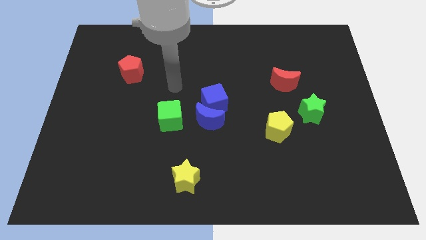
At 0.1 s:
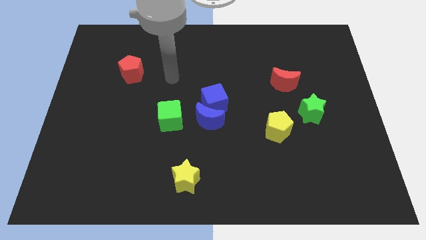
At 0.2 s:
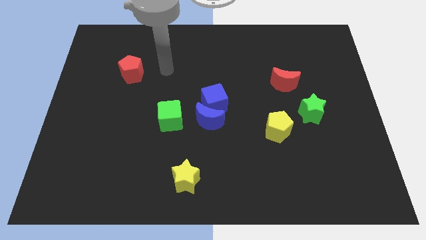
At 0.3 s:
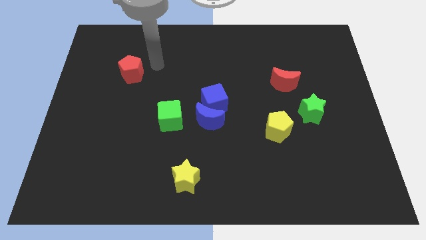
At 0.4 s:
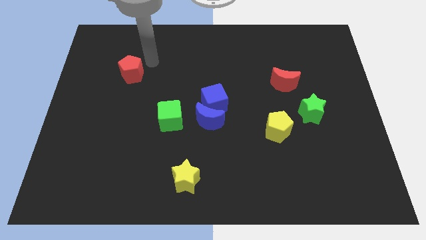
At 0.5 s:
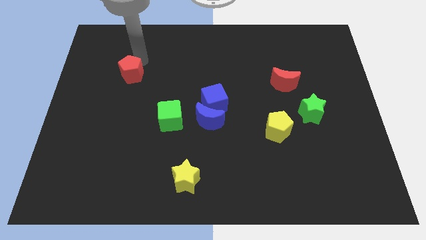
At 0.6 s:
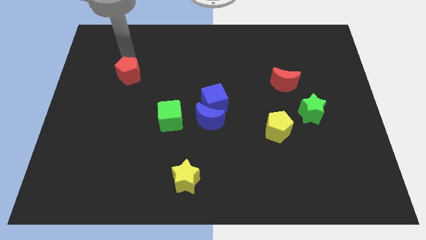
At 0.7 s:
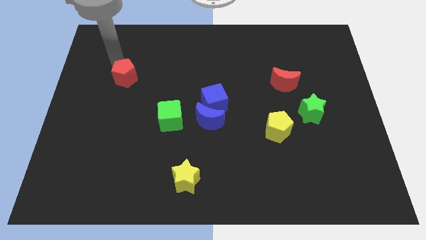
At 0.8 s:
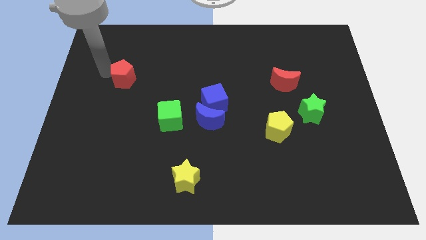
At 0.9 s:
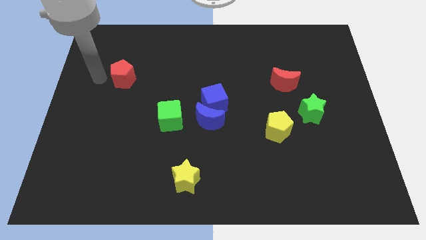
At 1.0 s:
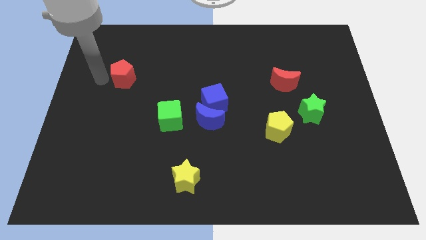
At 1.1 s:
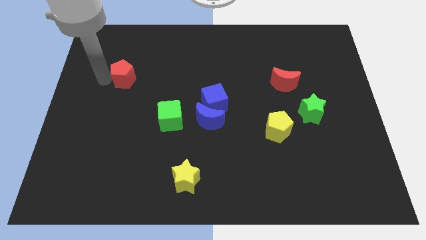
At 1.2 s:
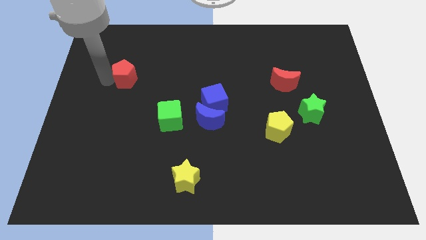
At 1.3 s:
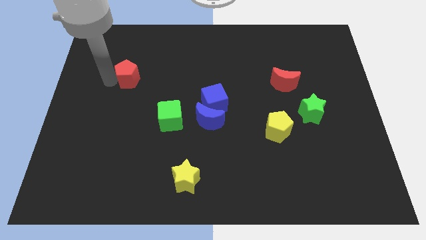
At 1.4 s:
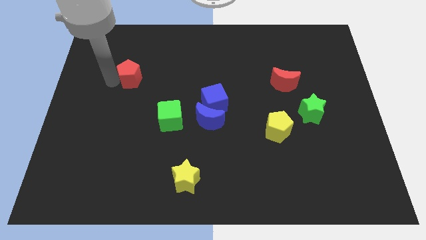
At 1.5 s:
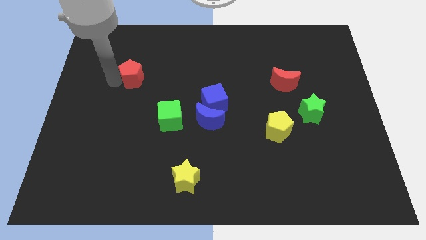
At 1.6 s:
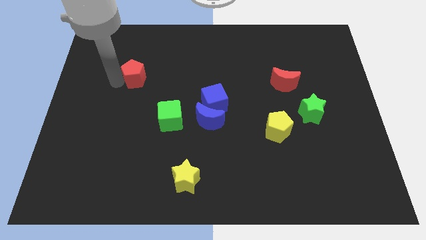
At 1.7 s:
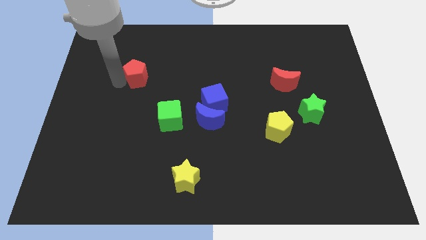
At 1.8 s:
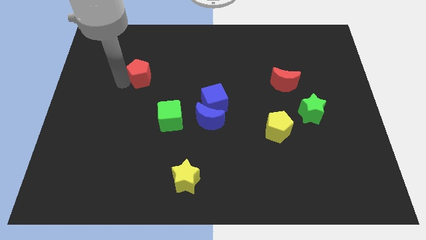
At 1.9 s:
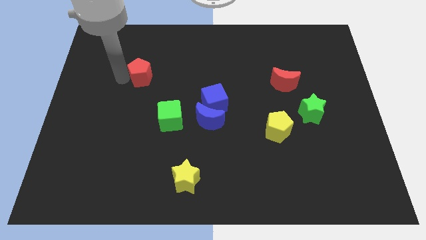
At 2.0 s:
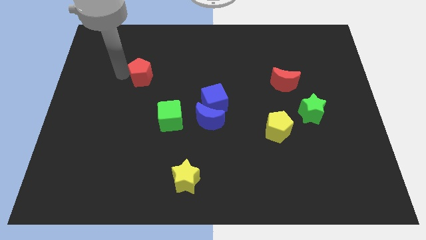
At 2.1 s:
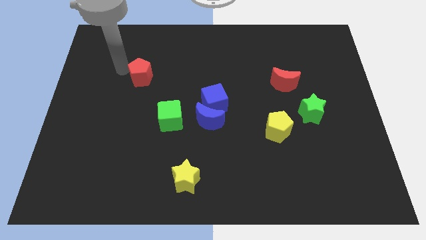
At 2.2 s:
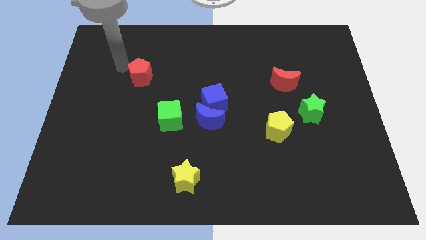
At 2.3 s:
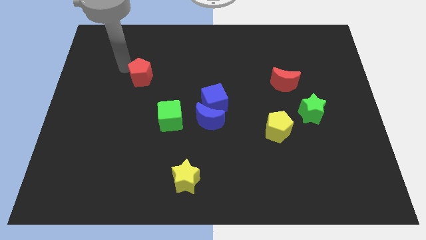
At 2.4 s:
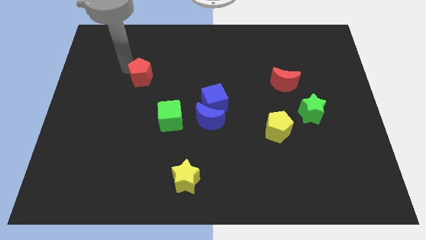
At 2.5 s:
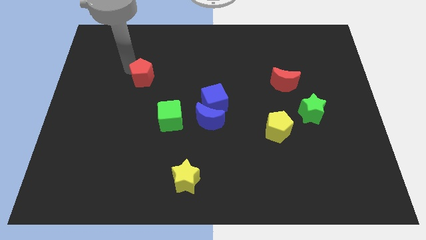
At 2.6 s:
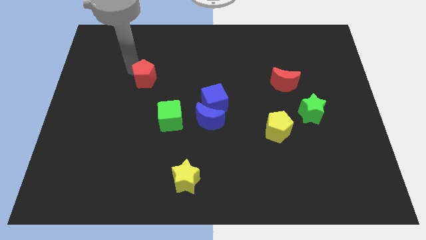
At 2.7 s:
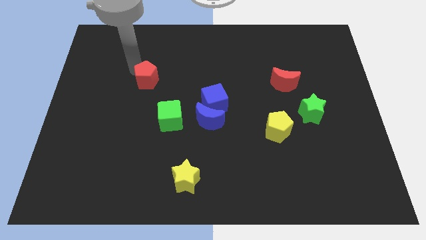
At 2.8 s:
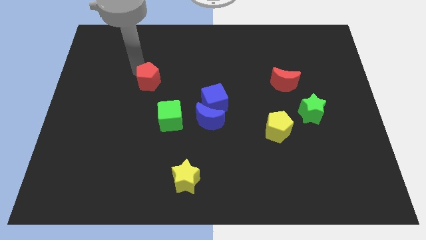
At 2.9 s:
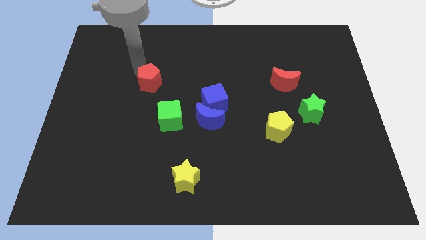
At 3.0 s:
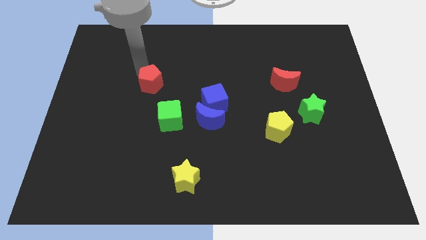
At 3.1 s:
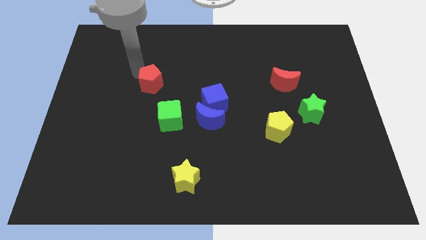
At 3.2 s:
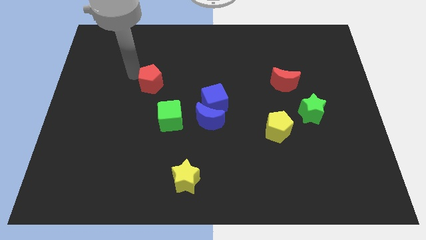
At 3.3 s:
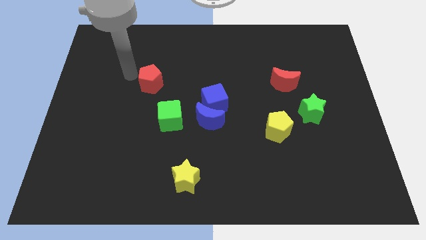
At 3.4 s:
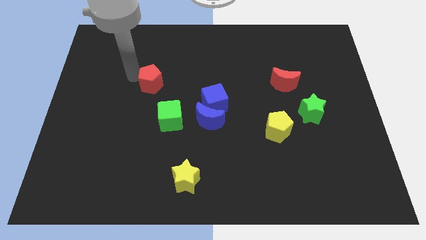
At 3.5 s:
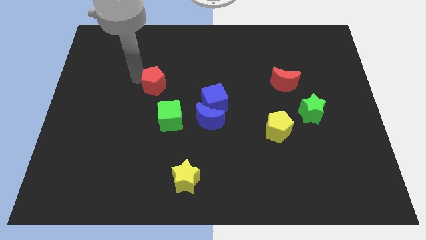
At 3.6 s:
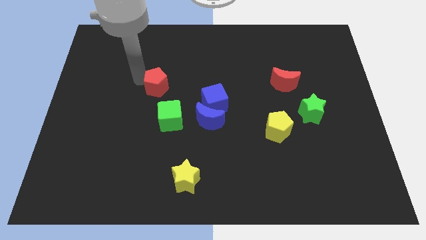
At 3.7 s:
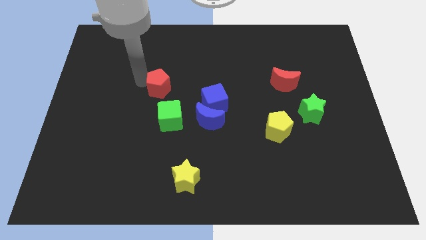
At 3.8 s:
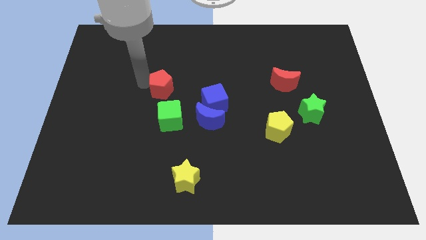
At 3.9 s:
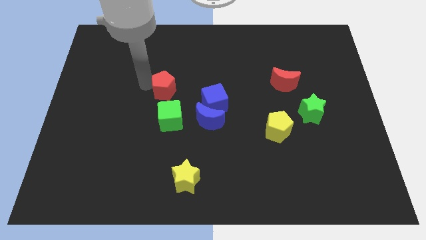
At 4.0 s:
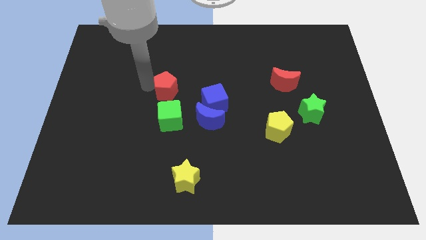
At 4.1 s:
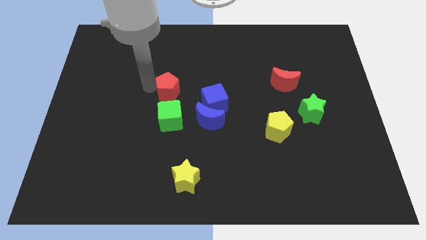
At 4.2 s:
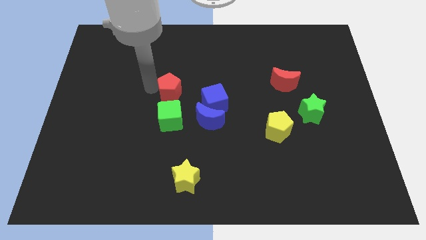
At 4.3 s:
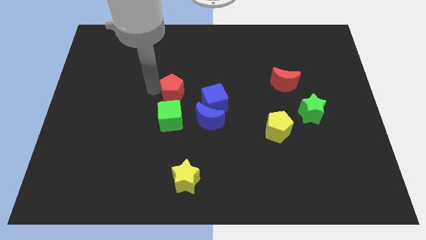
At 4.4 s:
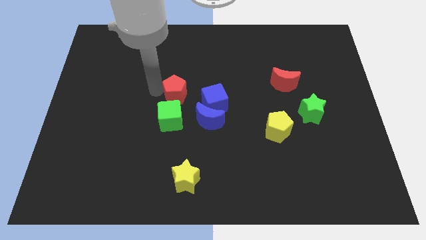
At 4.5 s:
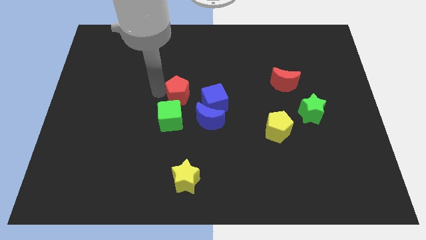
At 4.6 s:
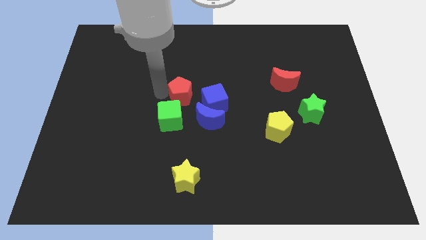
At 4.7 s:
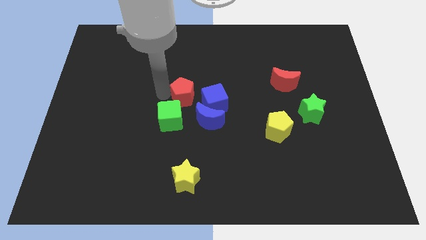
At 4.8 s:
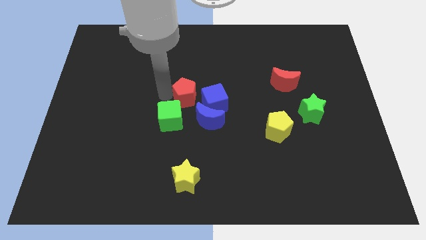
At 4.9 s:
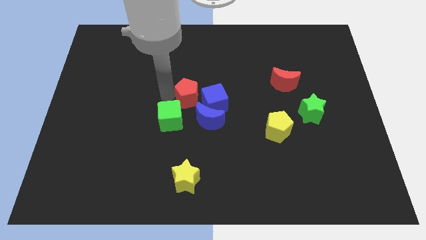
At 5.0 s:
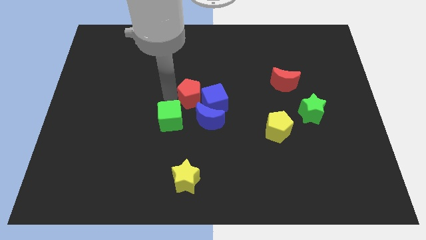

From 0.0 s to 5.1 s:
slide the red pentagon close to the blue cube

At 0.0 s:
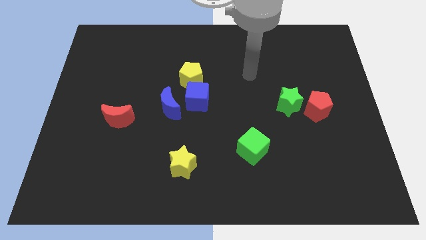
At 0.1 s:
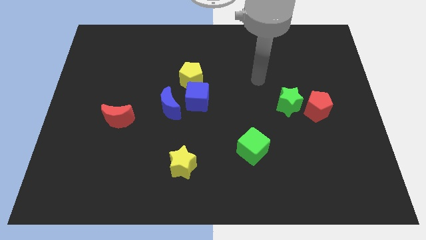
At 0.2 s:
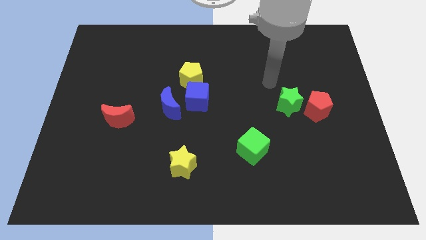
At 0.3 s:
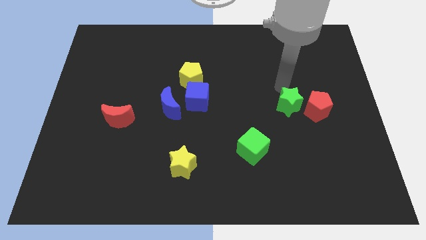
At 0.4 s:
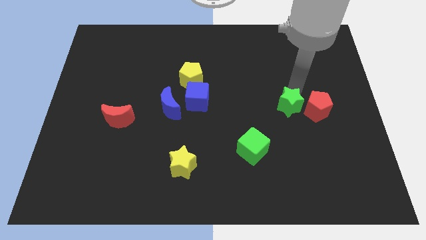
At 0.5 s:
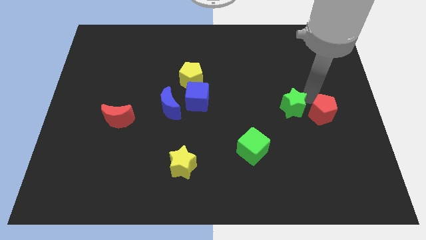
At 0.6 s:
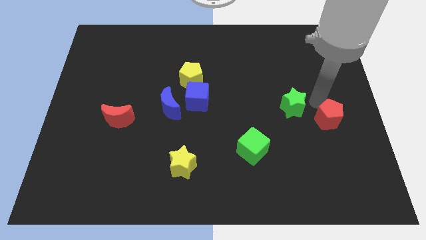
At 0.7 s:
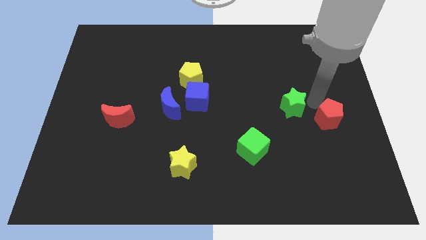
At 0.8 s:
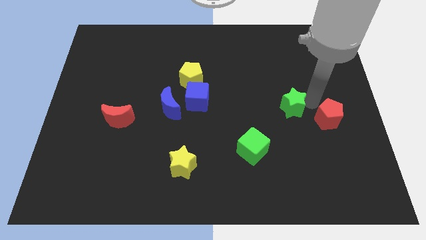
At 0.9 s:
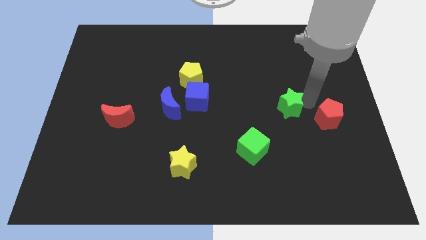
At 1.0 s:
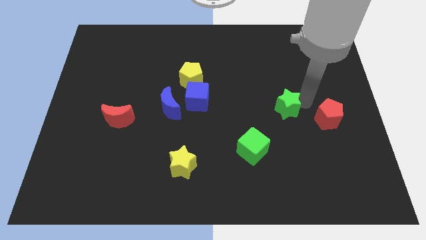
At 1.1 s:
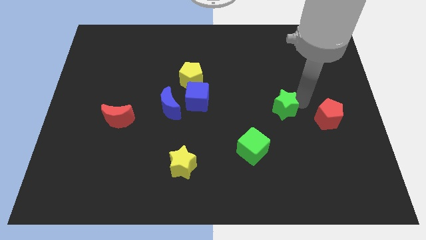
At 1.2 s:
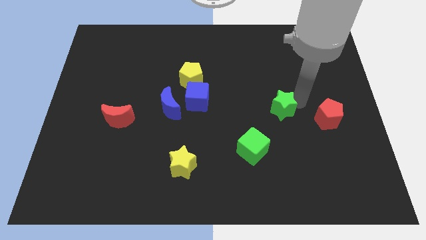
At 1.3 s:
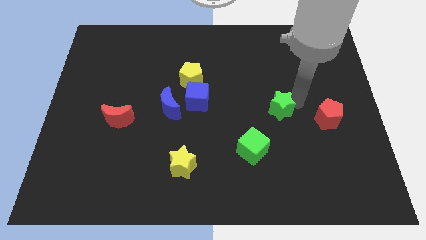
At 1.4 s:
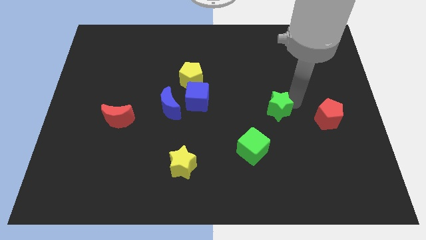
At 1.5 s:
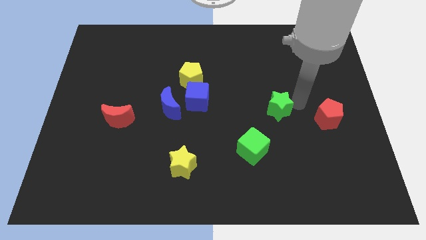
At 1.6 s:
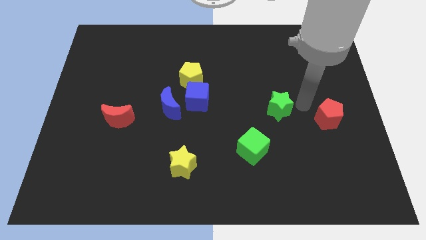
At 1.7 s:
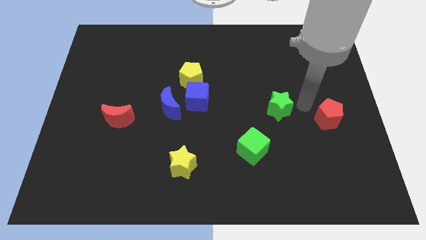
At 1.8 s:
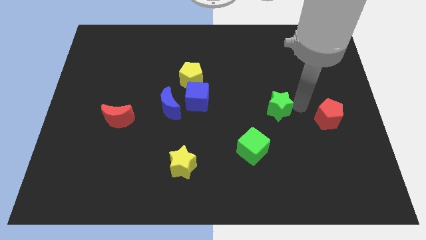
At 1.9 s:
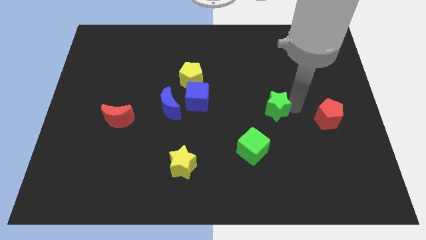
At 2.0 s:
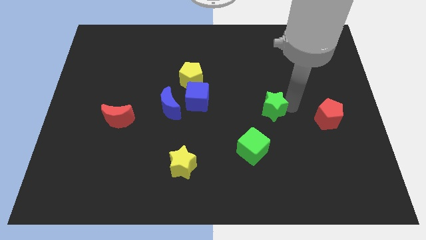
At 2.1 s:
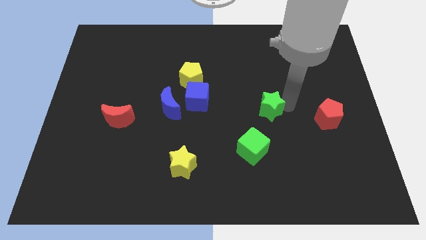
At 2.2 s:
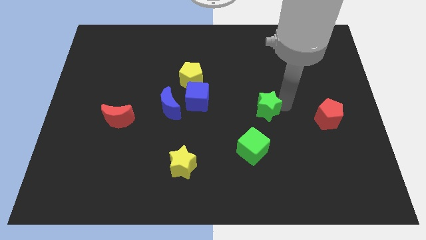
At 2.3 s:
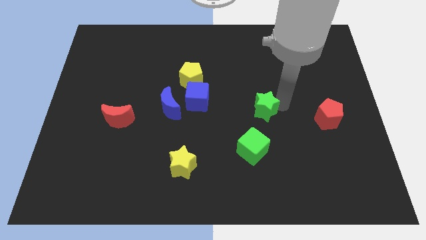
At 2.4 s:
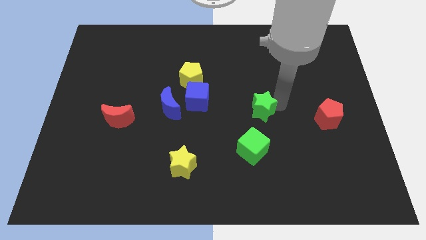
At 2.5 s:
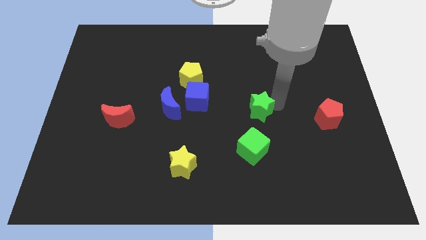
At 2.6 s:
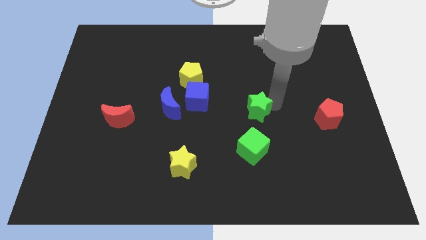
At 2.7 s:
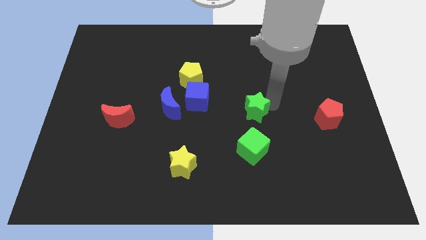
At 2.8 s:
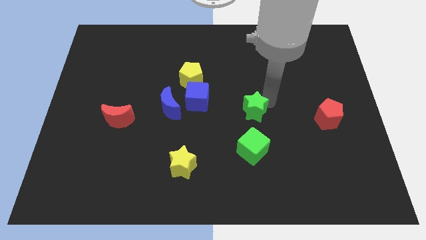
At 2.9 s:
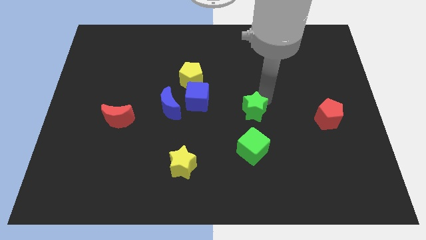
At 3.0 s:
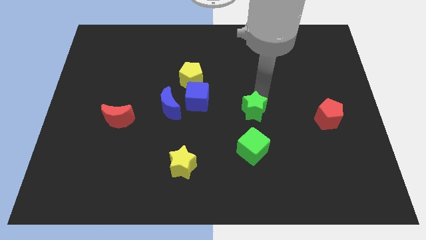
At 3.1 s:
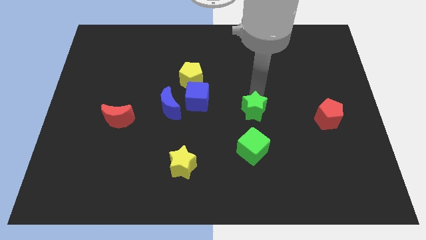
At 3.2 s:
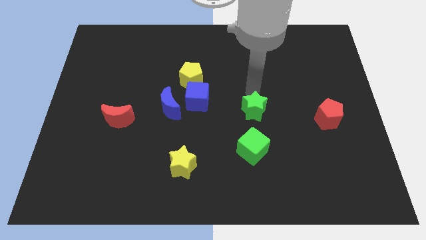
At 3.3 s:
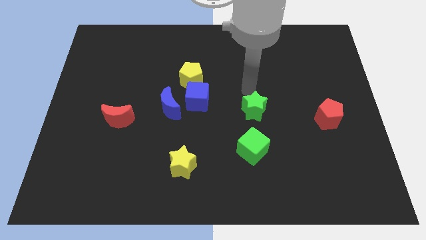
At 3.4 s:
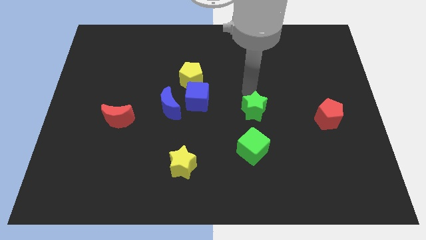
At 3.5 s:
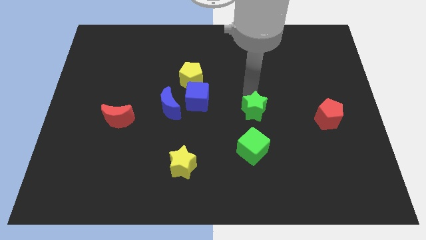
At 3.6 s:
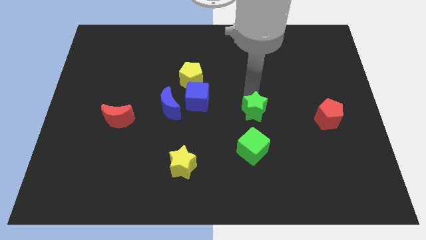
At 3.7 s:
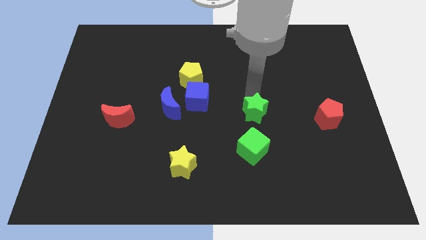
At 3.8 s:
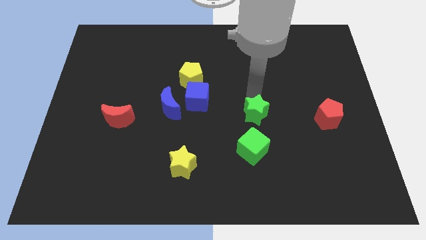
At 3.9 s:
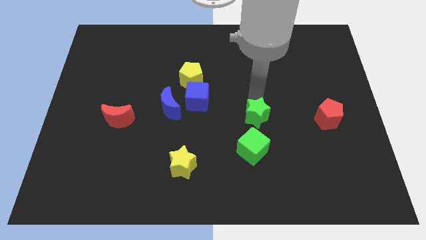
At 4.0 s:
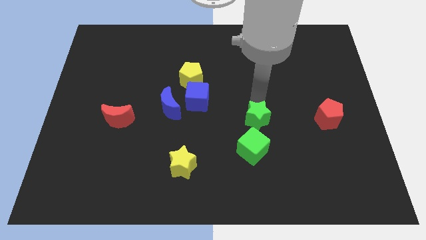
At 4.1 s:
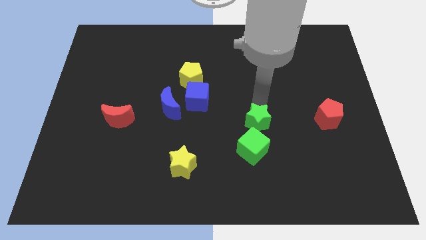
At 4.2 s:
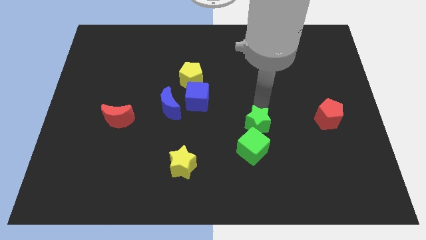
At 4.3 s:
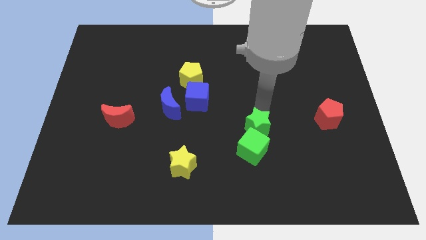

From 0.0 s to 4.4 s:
put the green star close to the green cube
